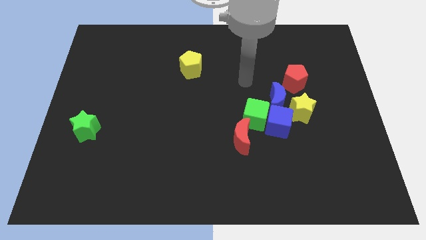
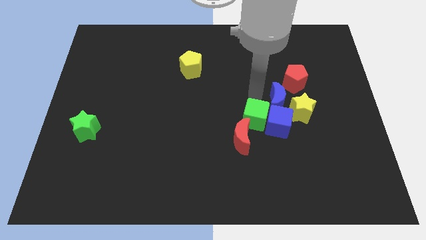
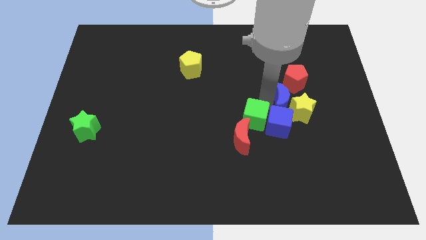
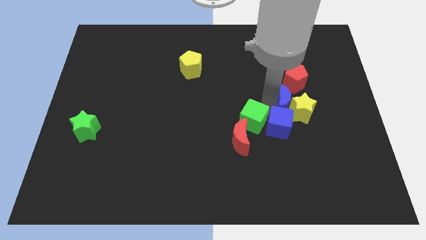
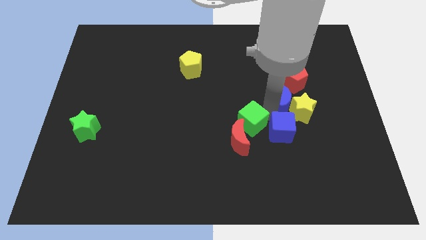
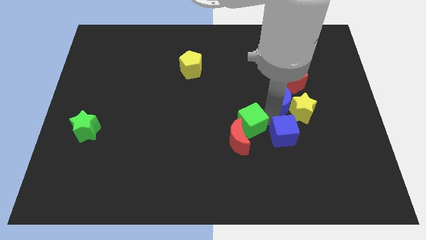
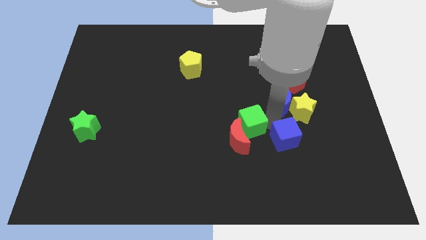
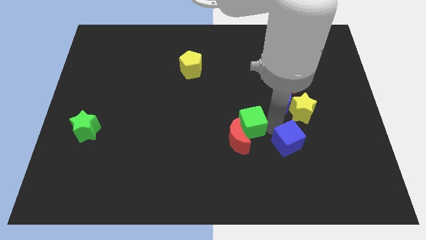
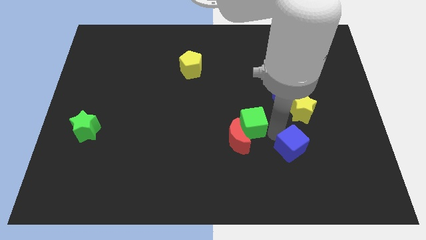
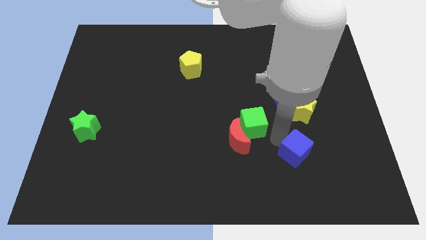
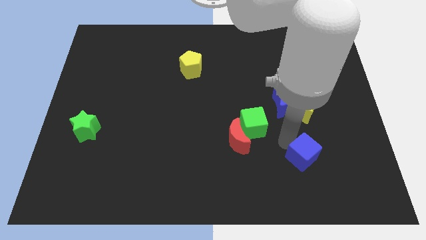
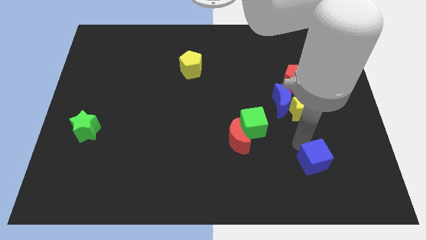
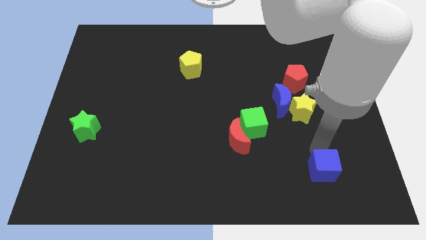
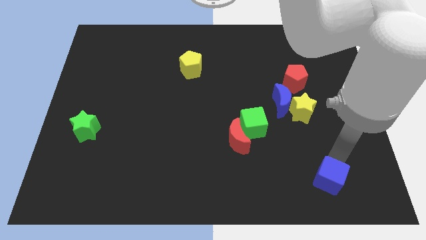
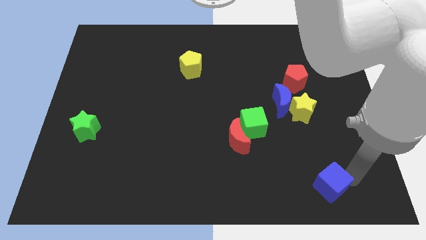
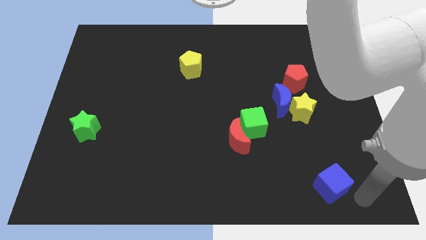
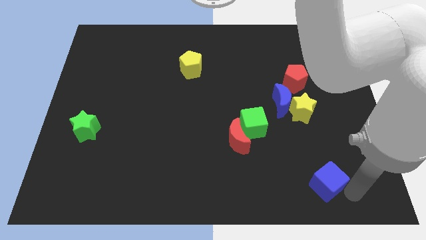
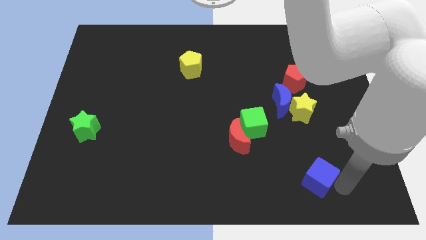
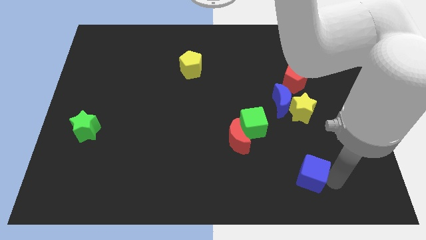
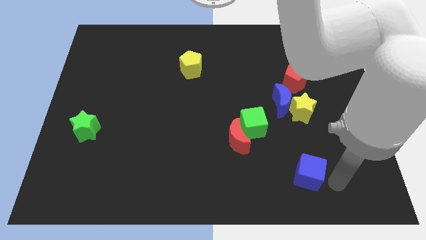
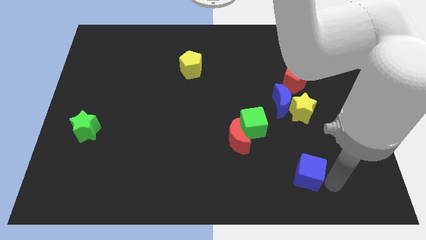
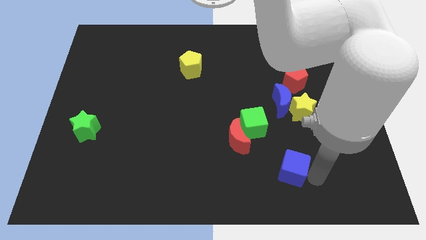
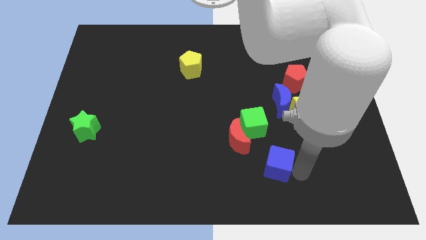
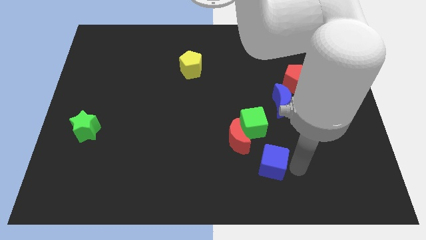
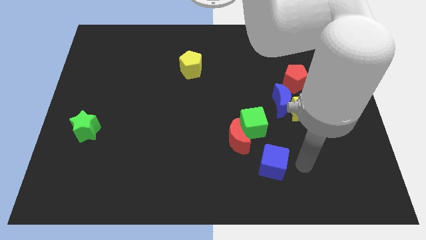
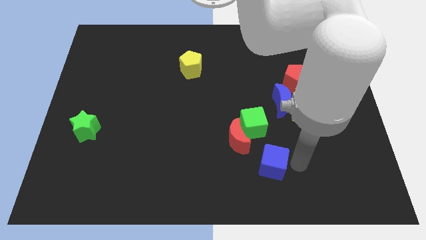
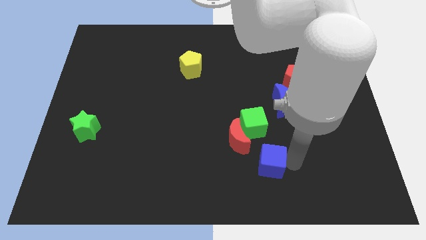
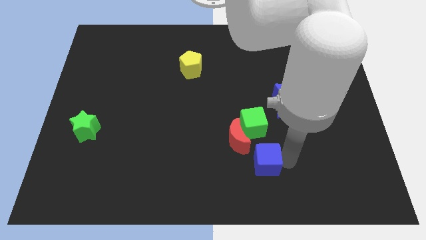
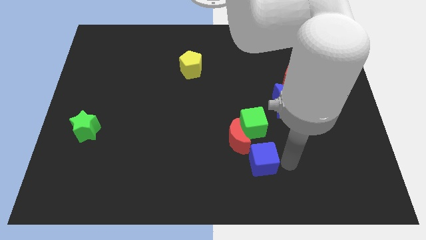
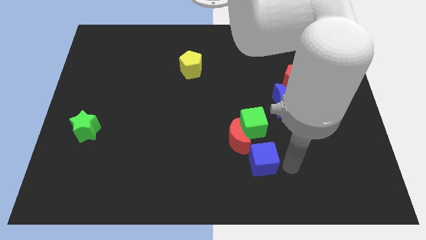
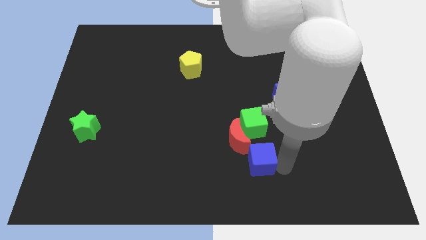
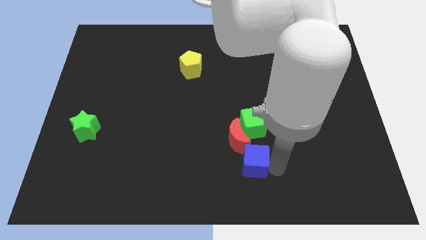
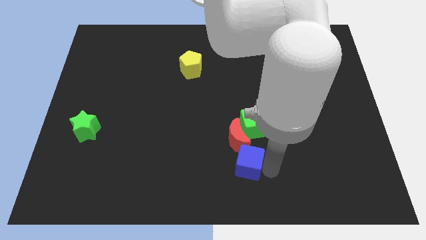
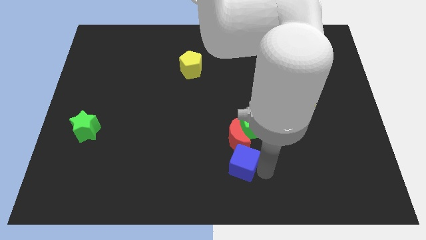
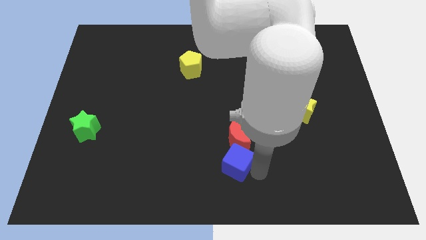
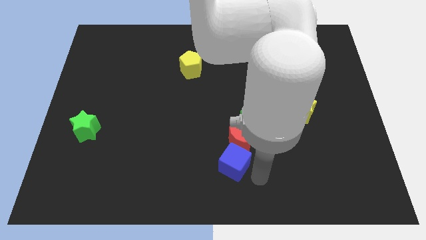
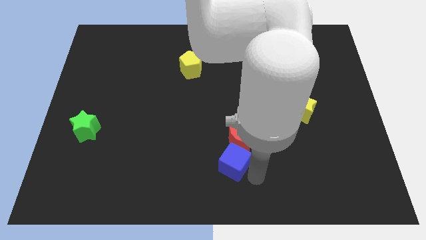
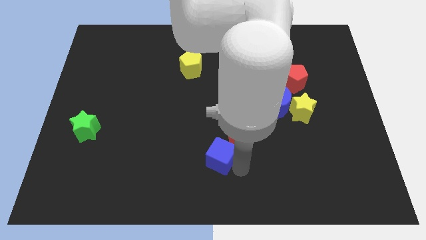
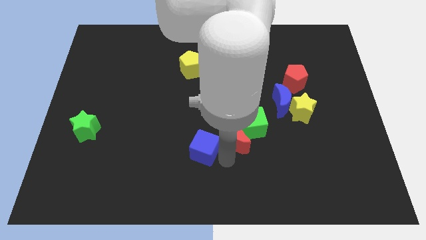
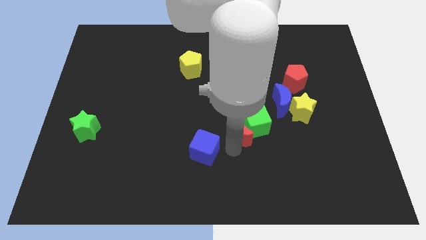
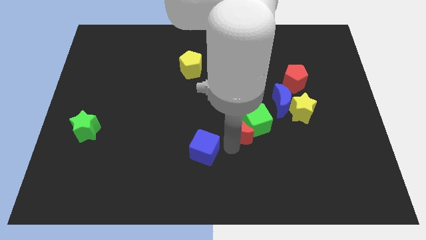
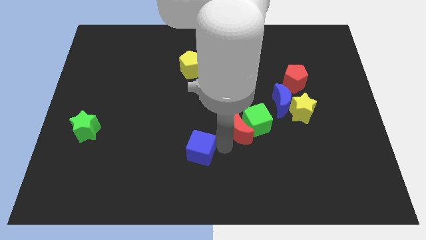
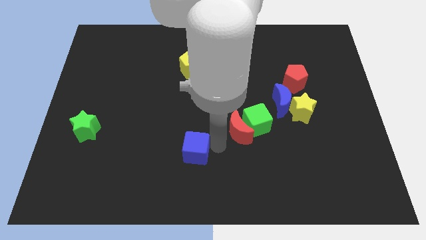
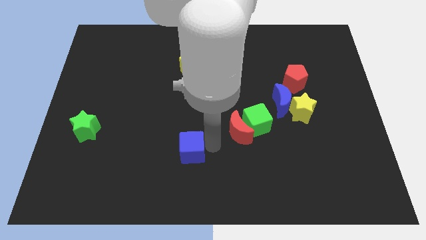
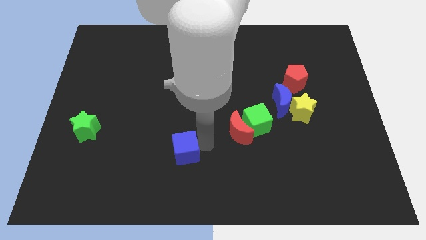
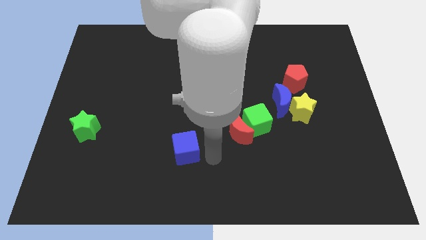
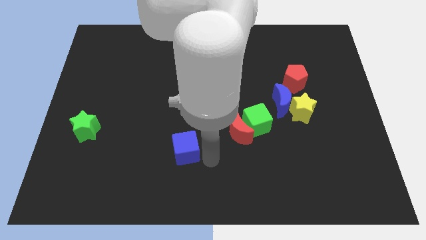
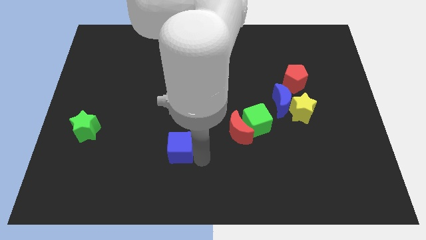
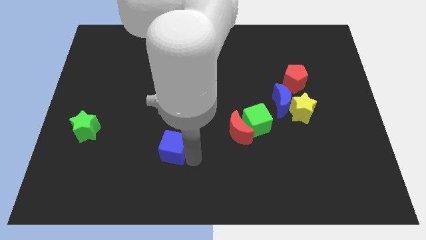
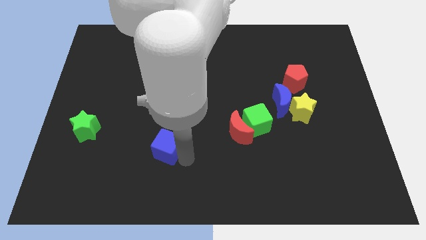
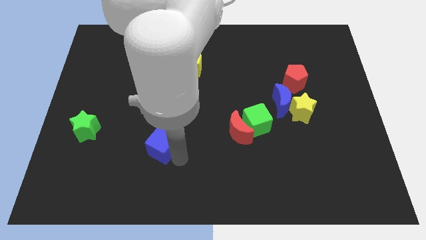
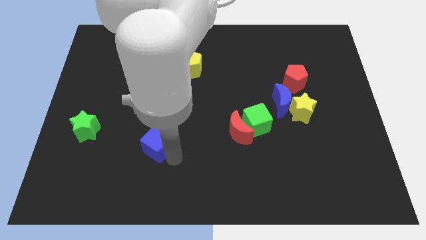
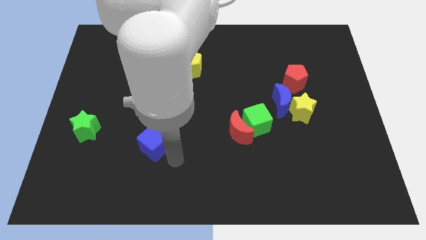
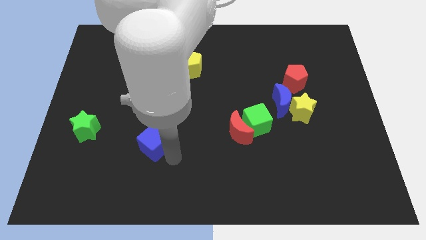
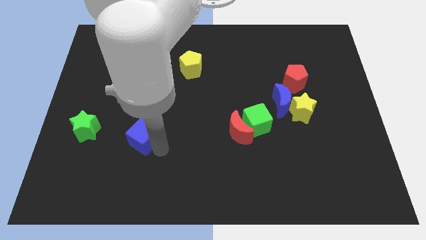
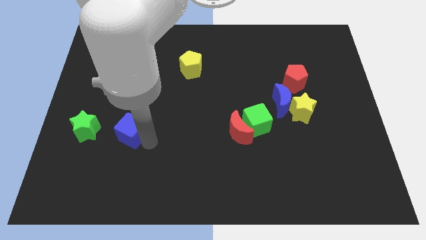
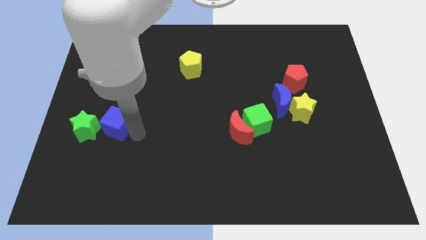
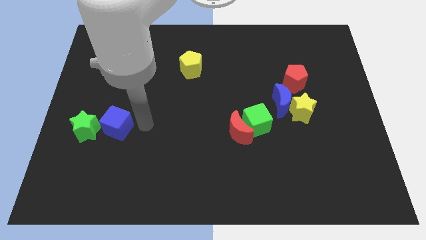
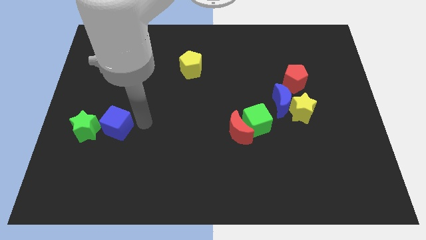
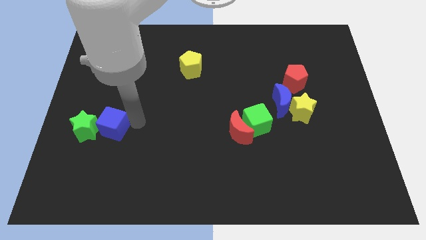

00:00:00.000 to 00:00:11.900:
put the blue cube to the green star

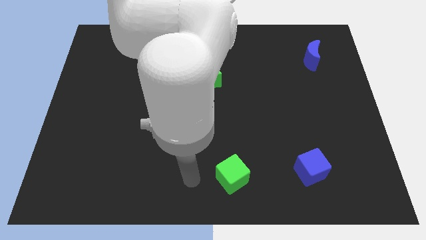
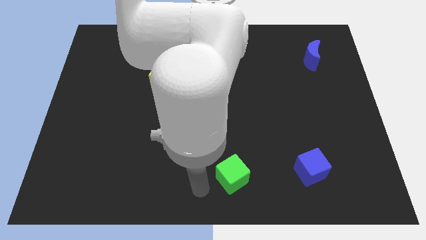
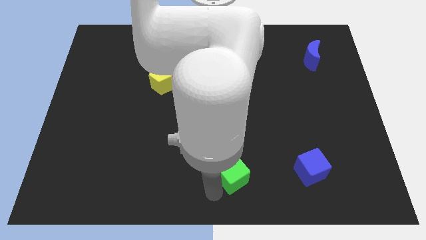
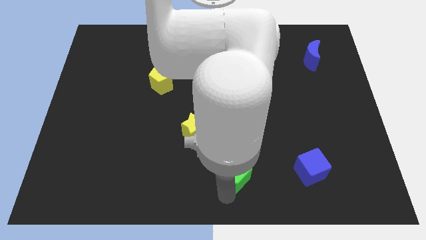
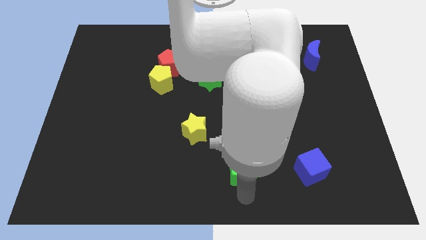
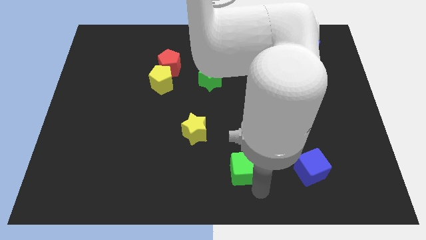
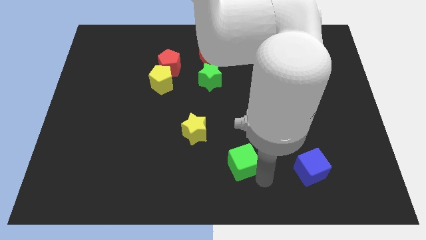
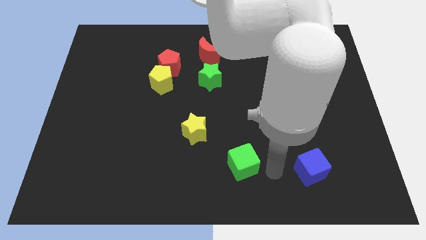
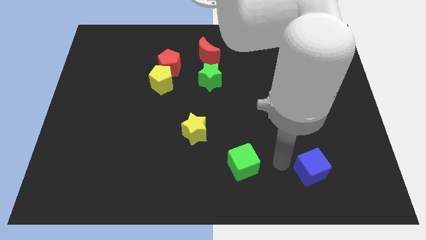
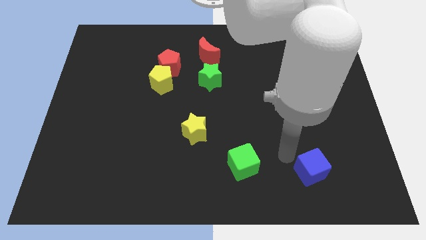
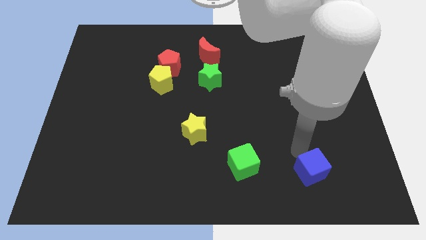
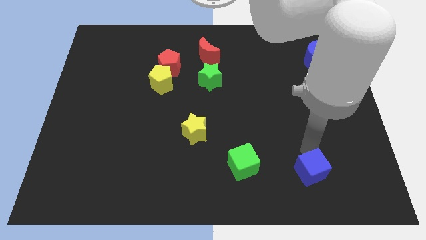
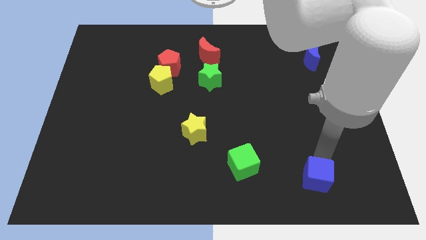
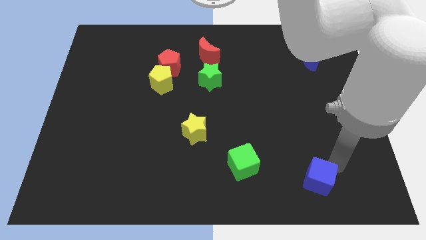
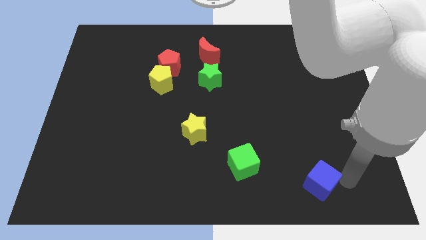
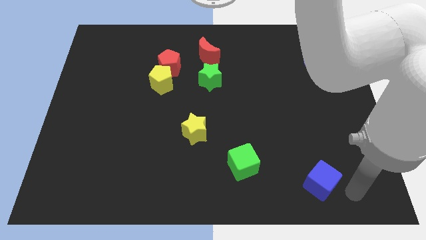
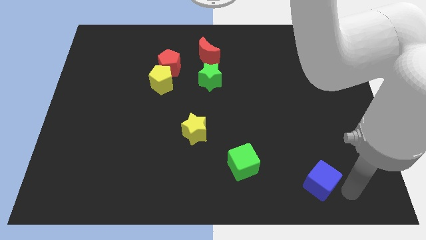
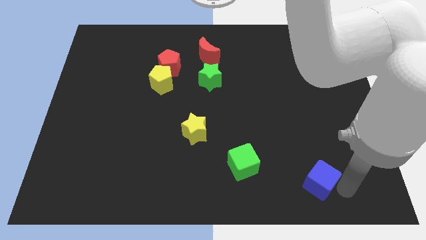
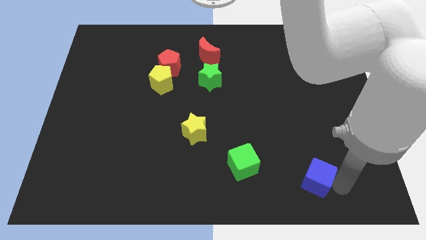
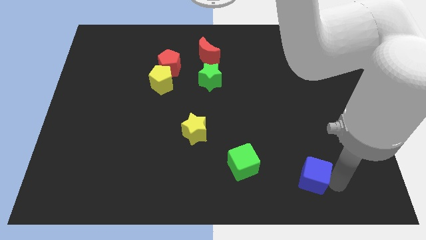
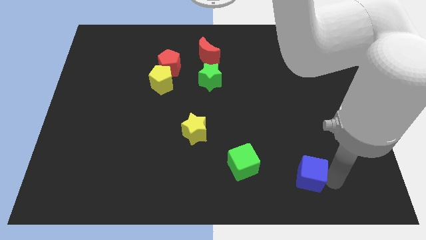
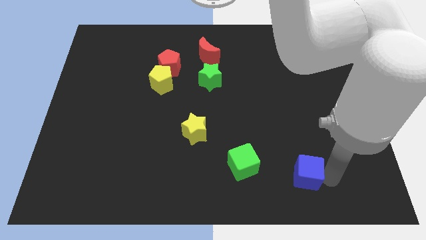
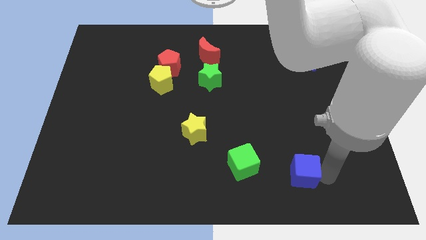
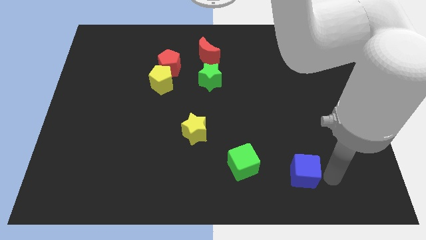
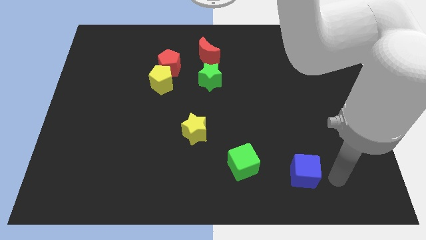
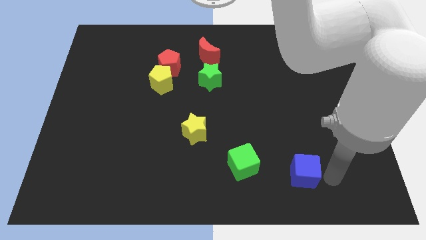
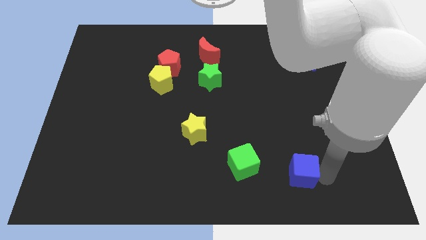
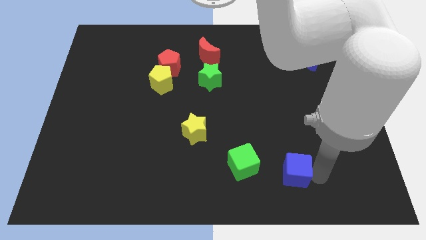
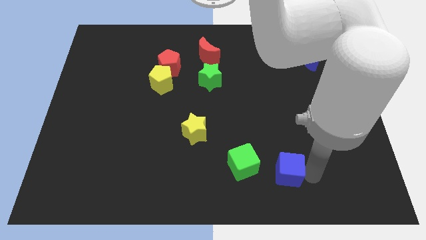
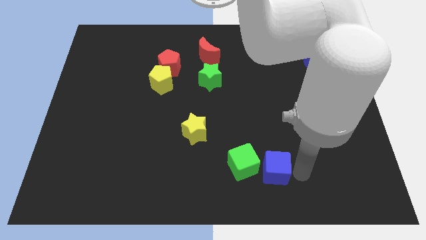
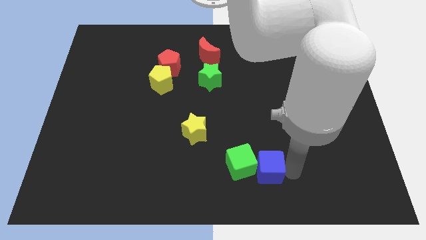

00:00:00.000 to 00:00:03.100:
slide the blue cube close to the green cube
